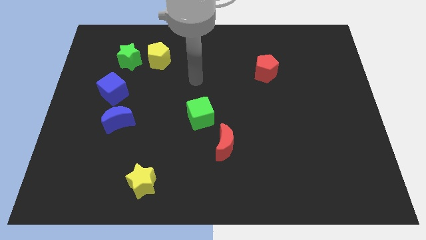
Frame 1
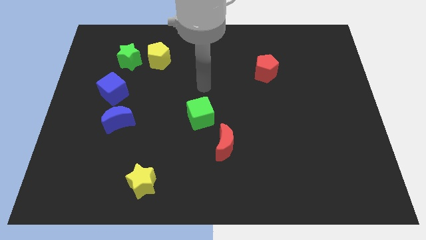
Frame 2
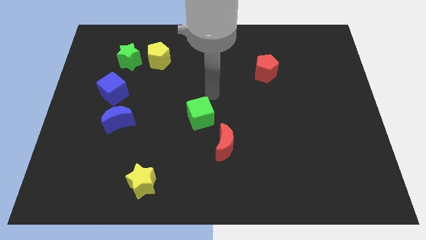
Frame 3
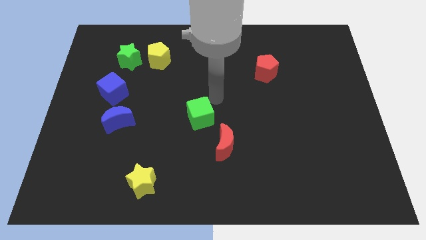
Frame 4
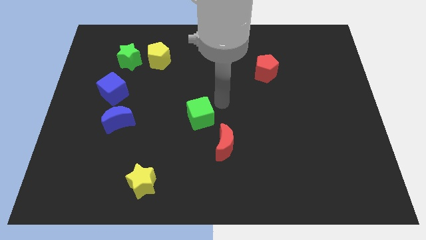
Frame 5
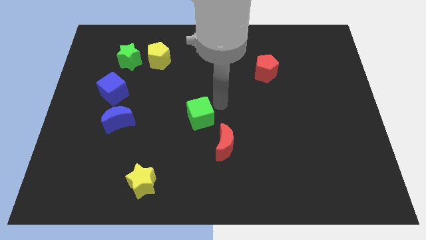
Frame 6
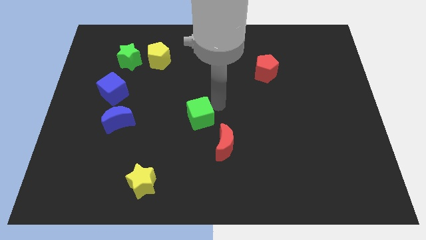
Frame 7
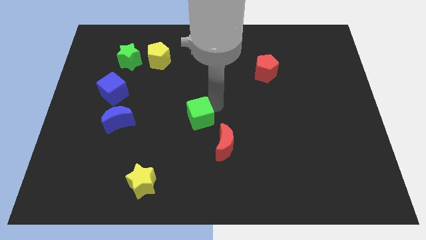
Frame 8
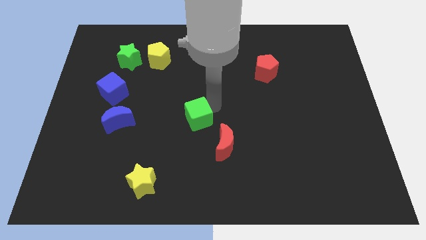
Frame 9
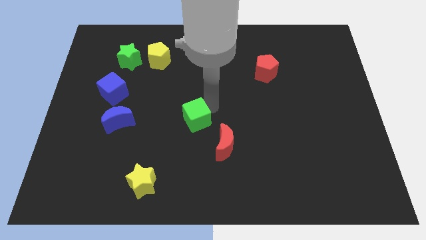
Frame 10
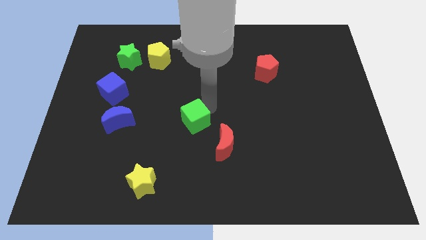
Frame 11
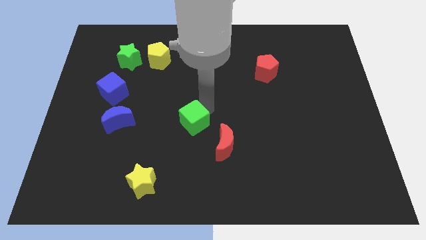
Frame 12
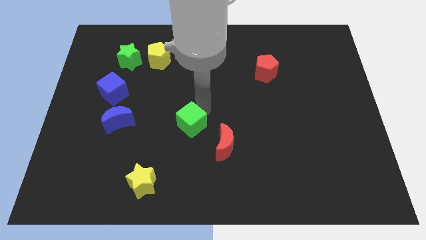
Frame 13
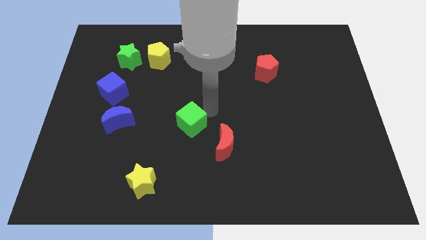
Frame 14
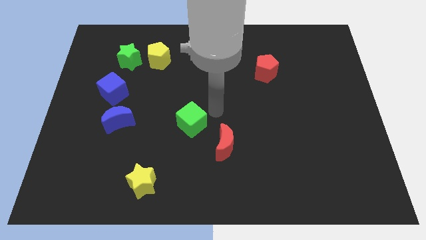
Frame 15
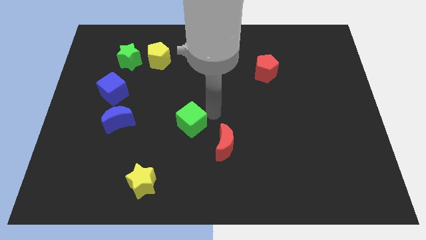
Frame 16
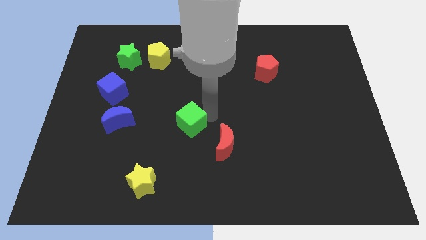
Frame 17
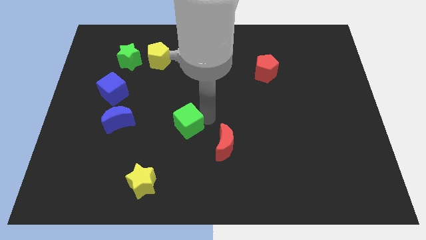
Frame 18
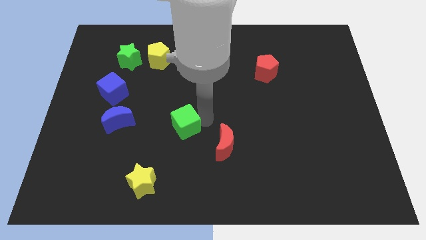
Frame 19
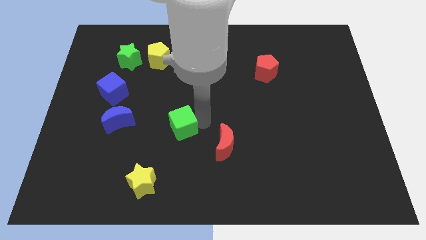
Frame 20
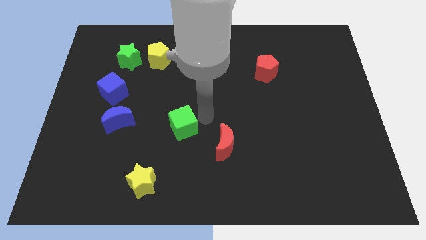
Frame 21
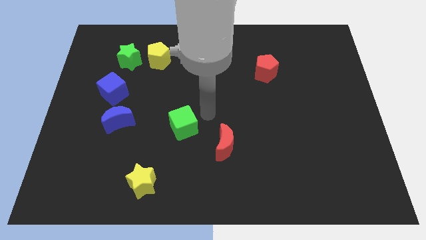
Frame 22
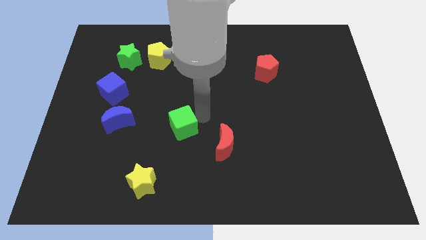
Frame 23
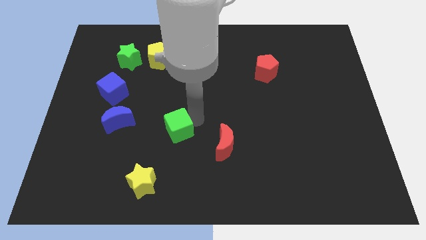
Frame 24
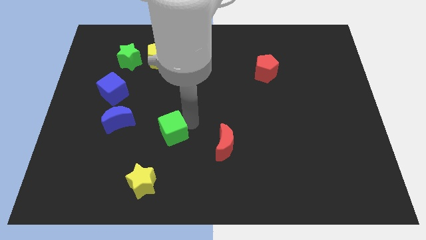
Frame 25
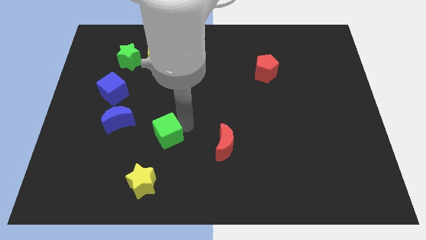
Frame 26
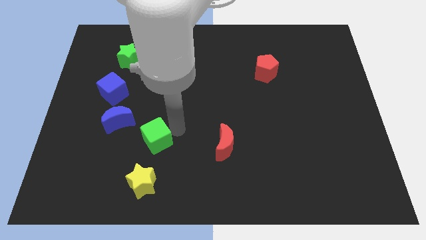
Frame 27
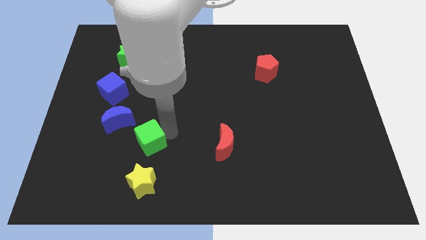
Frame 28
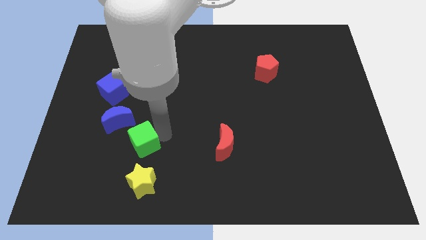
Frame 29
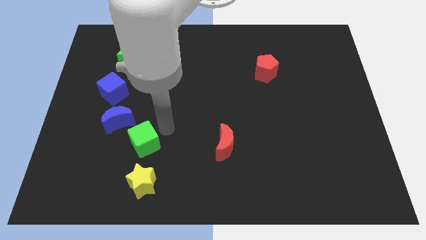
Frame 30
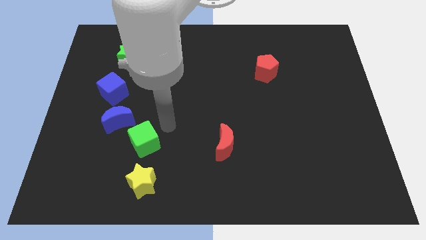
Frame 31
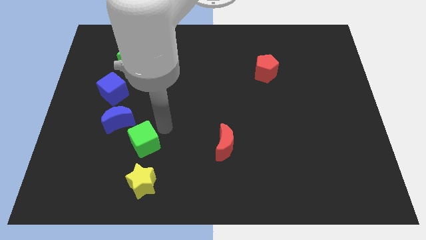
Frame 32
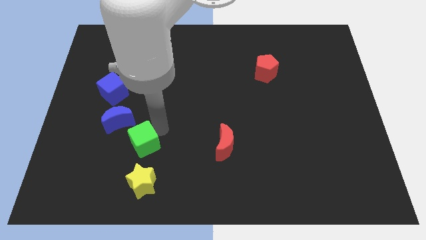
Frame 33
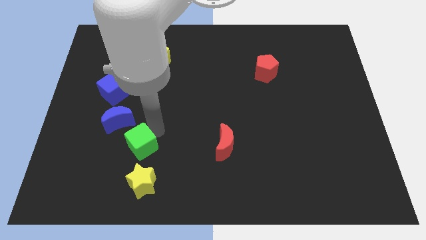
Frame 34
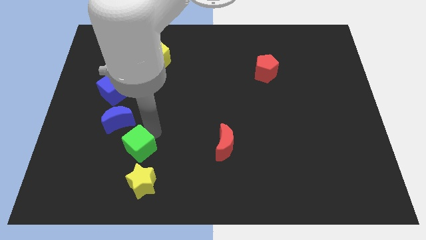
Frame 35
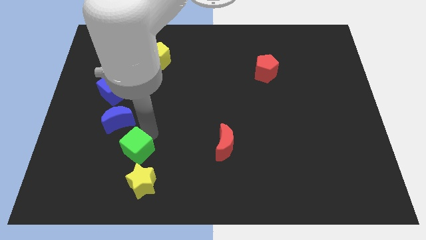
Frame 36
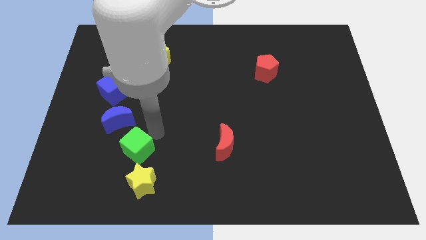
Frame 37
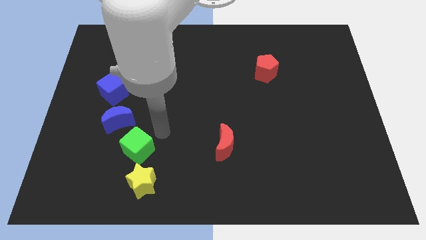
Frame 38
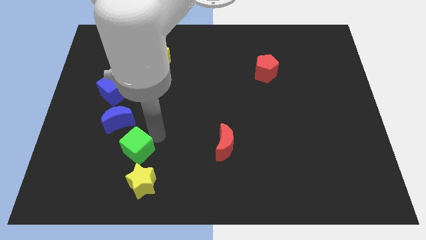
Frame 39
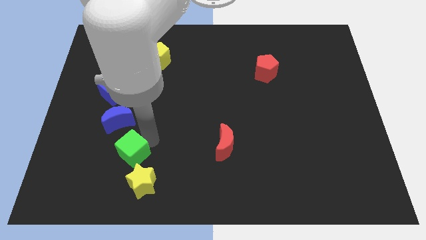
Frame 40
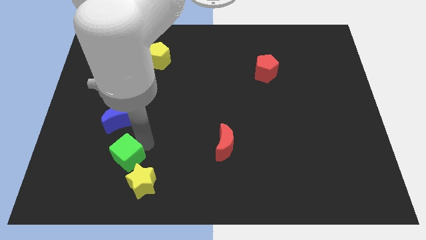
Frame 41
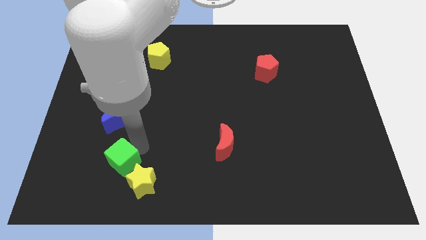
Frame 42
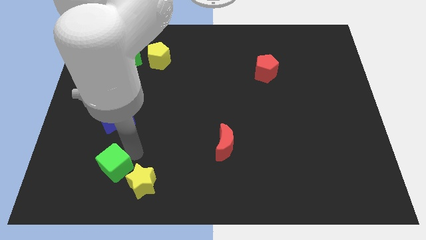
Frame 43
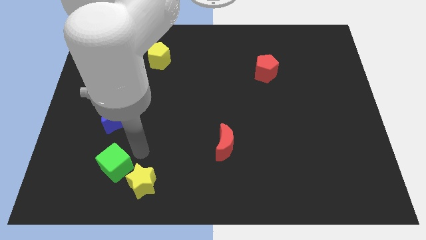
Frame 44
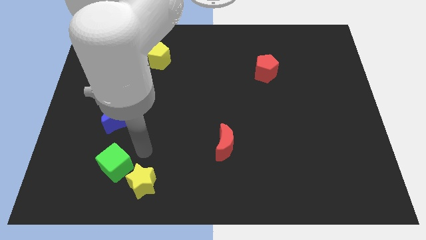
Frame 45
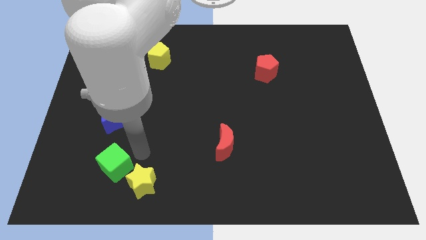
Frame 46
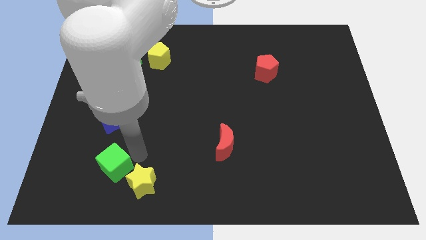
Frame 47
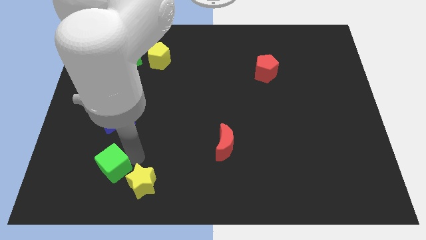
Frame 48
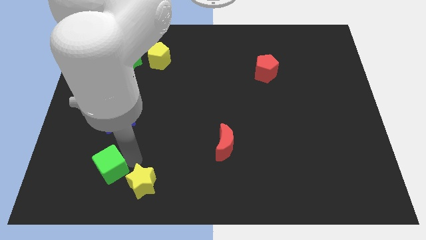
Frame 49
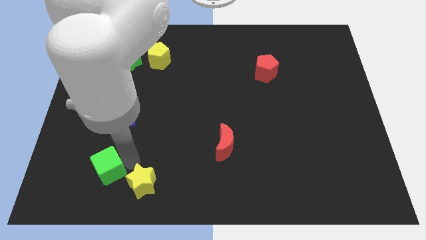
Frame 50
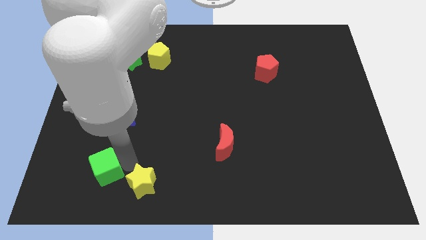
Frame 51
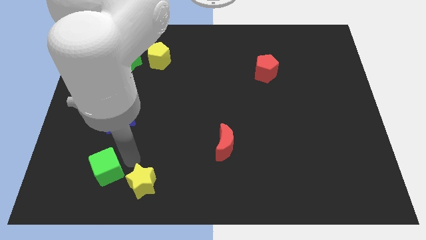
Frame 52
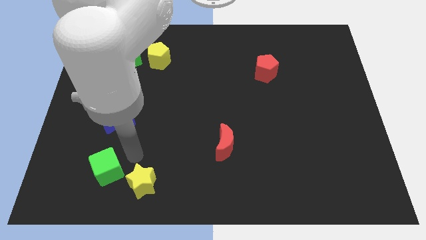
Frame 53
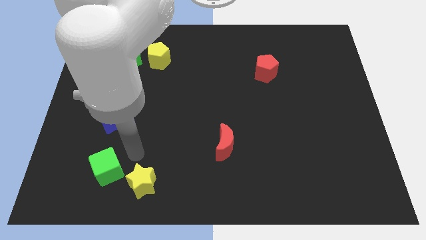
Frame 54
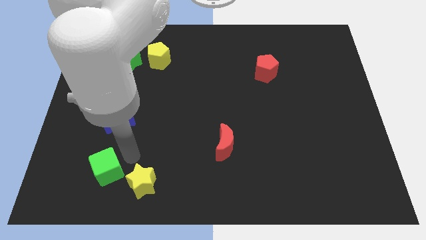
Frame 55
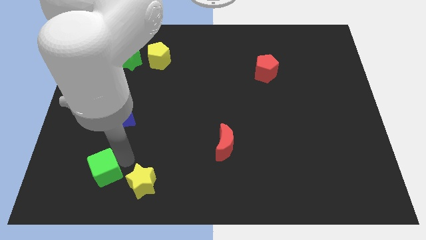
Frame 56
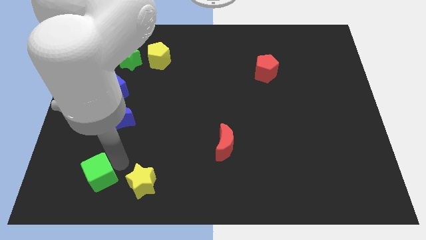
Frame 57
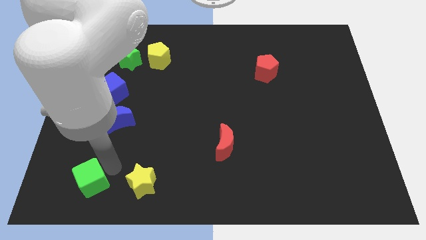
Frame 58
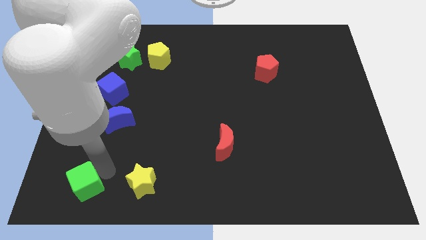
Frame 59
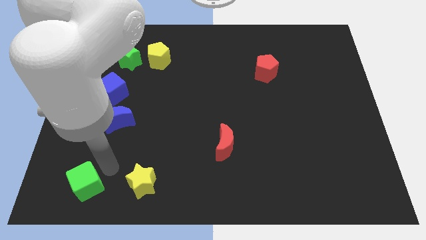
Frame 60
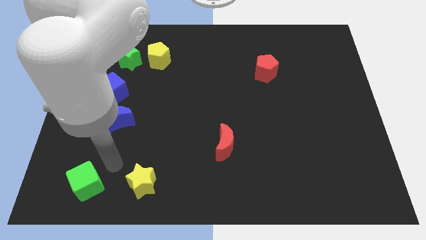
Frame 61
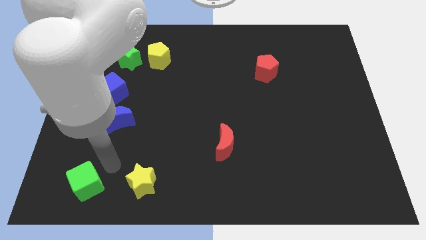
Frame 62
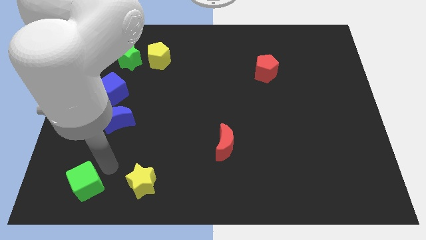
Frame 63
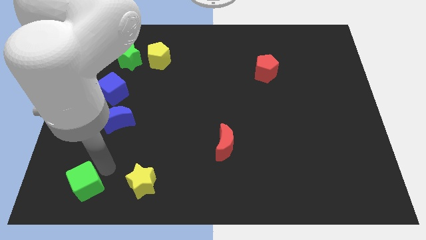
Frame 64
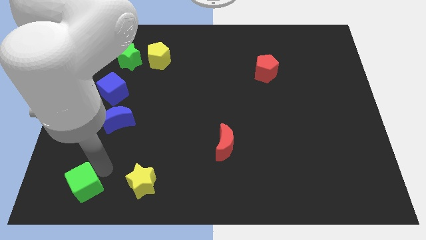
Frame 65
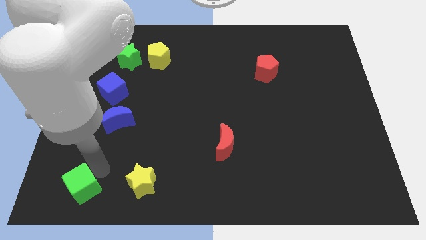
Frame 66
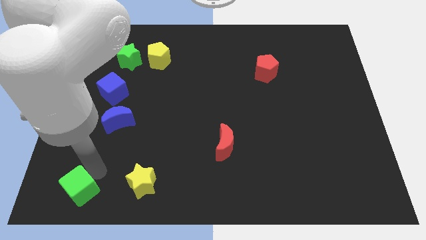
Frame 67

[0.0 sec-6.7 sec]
move the green cube to the bottom left of the board

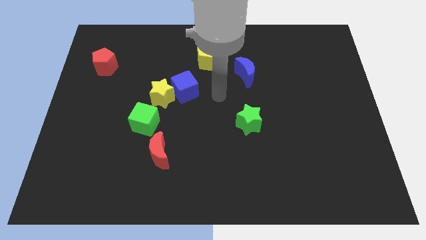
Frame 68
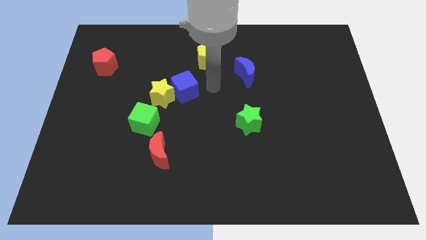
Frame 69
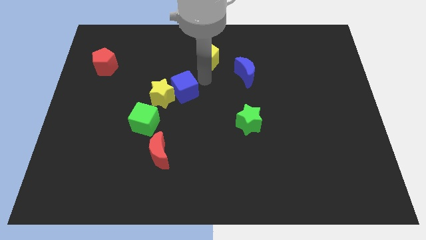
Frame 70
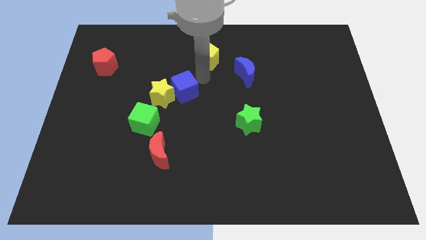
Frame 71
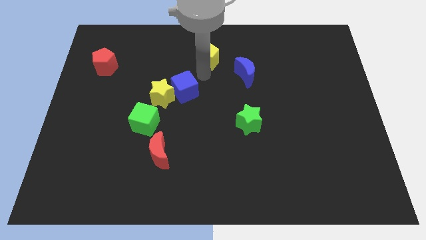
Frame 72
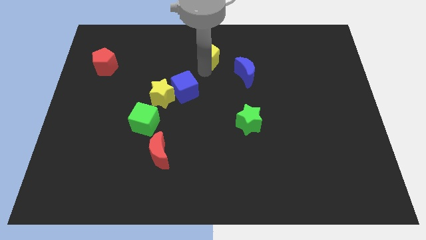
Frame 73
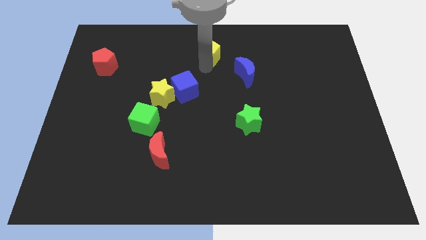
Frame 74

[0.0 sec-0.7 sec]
slide the yellow pentagon to the towards your base
